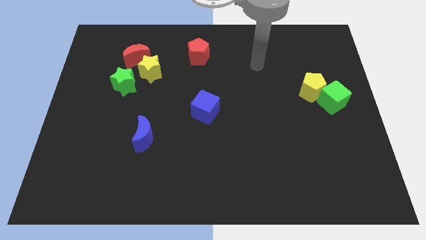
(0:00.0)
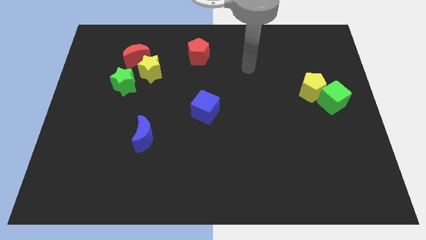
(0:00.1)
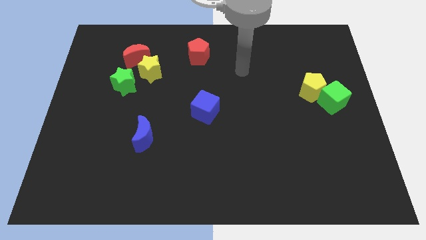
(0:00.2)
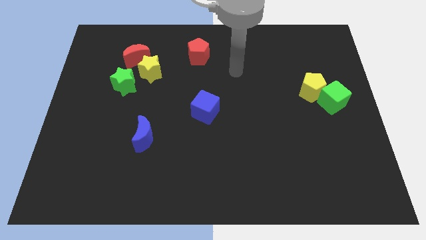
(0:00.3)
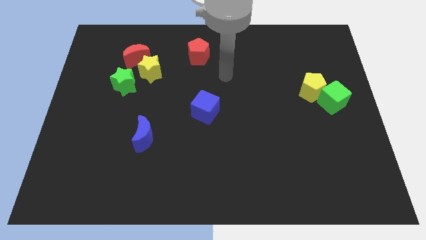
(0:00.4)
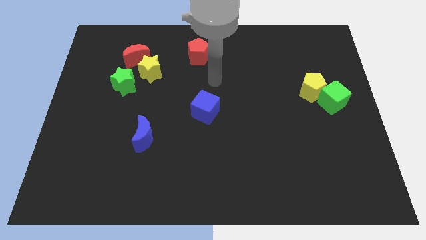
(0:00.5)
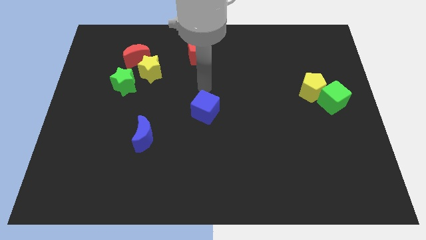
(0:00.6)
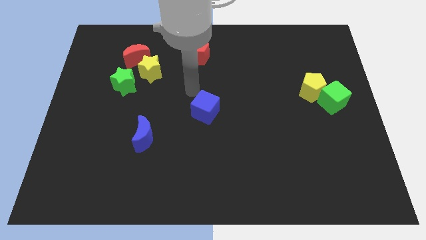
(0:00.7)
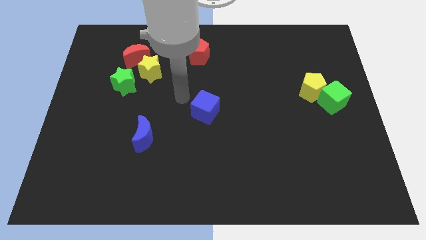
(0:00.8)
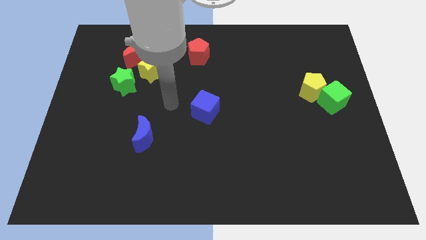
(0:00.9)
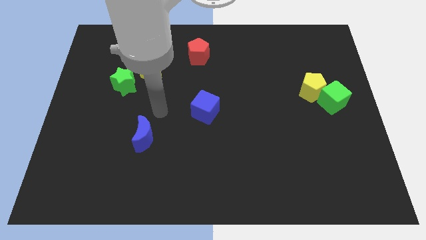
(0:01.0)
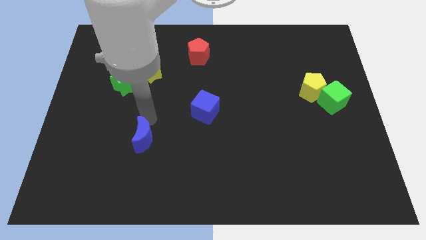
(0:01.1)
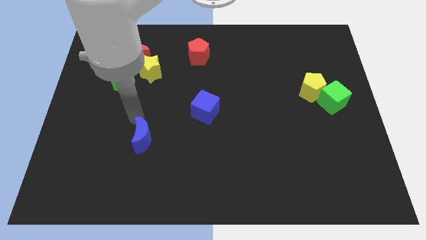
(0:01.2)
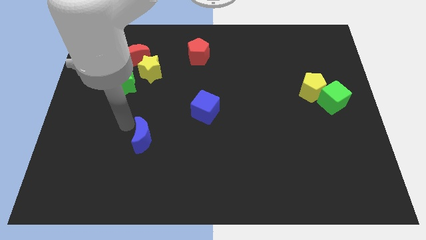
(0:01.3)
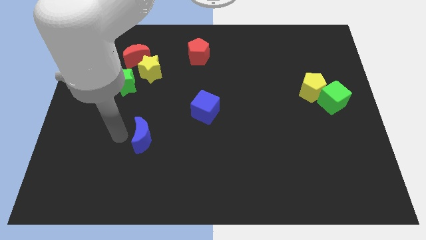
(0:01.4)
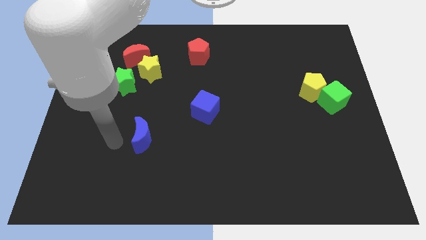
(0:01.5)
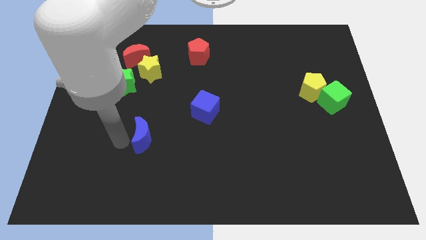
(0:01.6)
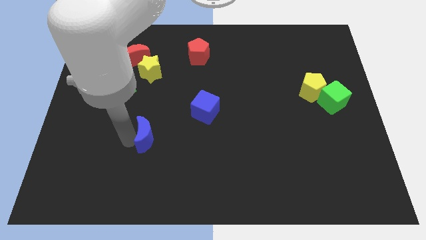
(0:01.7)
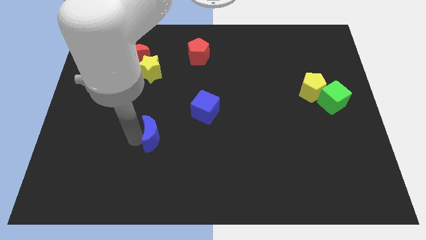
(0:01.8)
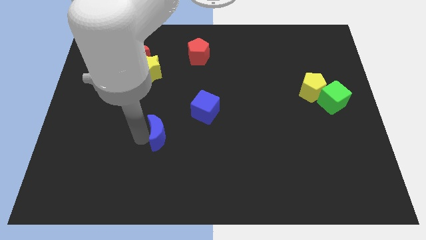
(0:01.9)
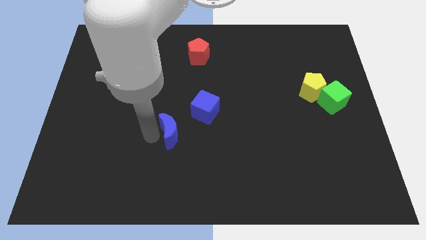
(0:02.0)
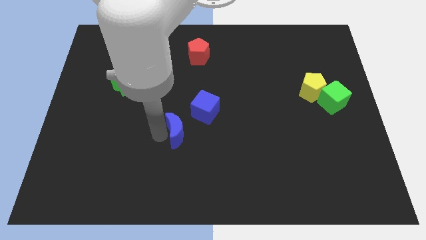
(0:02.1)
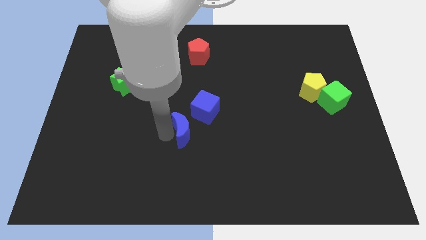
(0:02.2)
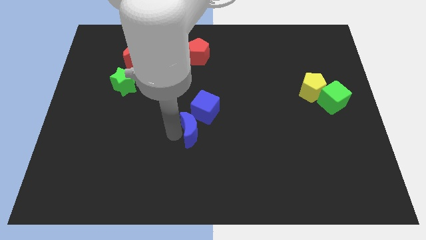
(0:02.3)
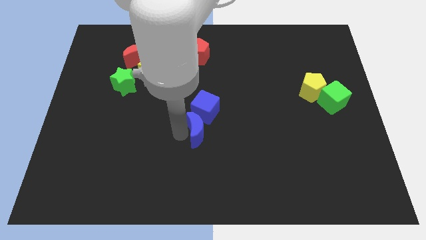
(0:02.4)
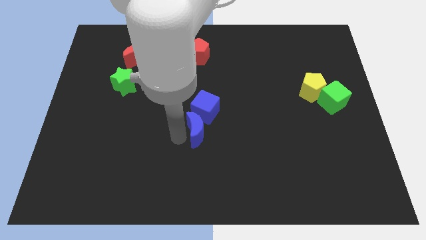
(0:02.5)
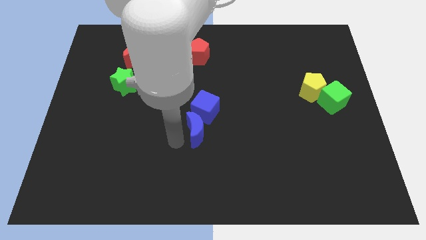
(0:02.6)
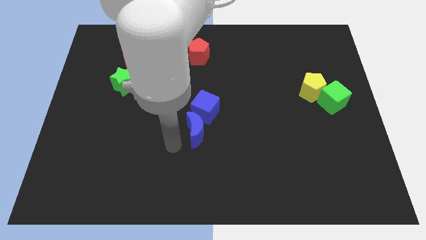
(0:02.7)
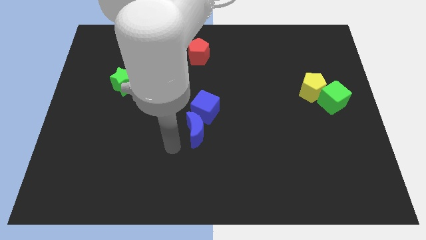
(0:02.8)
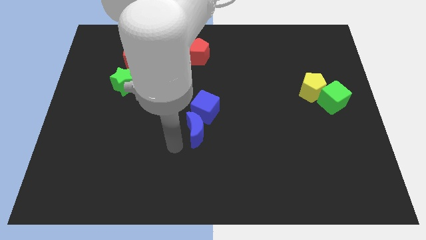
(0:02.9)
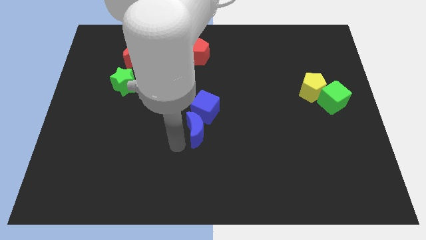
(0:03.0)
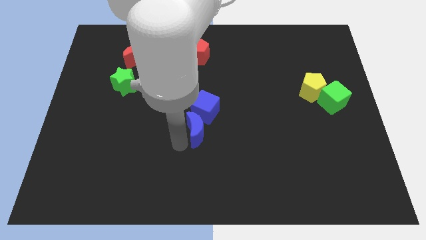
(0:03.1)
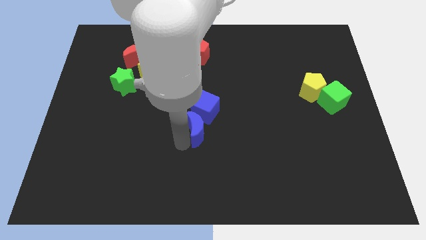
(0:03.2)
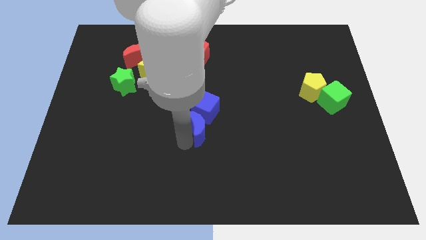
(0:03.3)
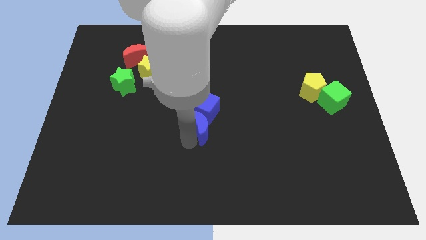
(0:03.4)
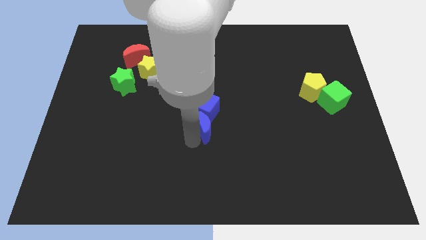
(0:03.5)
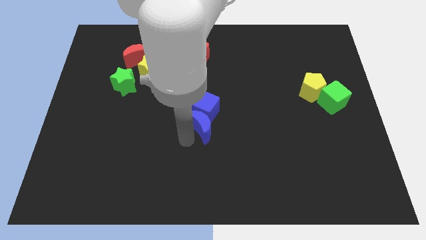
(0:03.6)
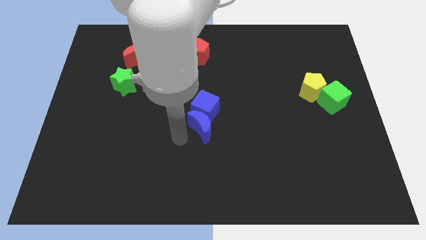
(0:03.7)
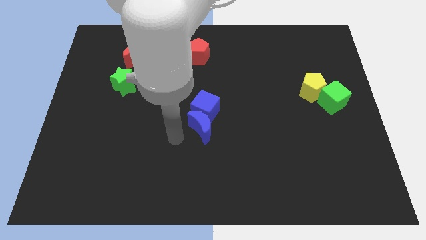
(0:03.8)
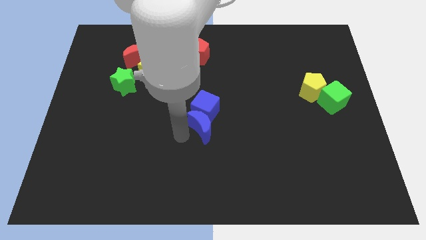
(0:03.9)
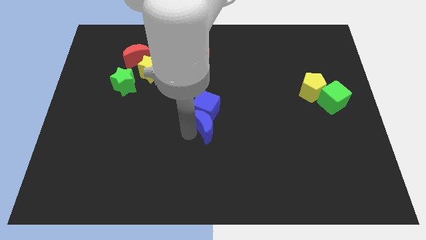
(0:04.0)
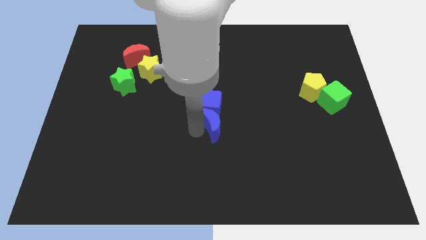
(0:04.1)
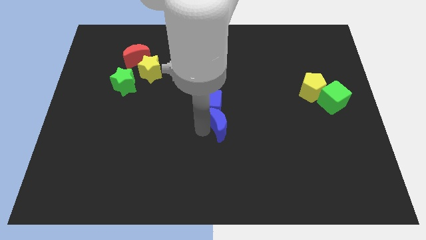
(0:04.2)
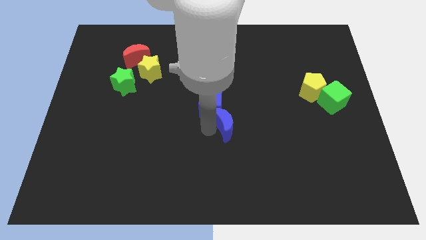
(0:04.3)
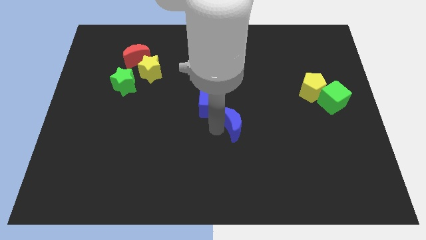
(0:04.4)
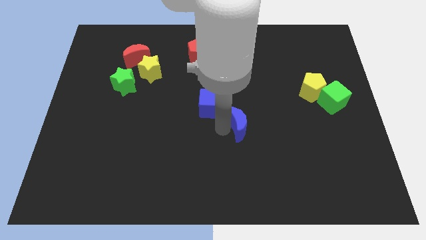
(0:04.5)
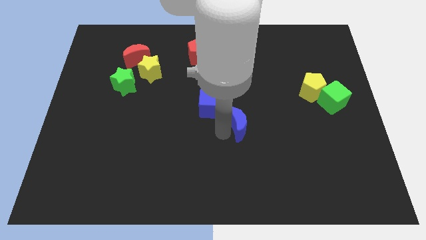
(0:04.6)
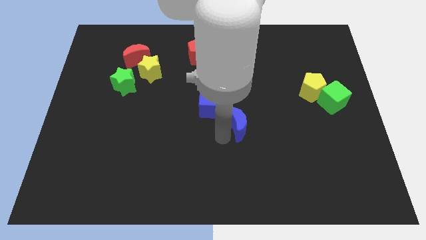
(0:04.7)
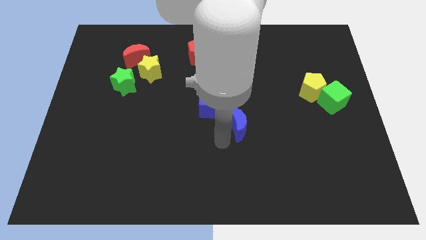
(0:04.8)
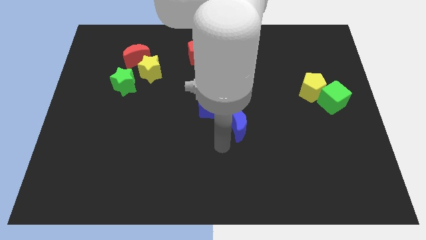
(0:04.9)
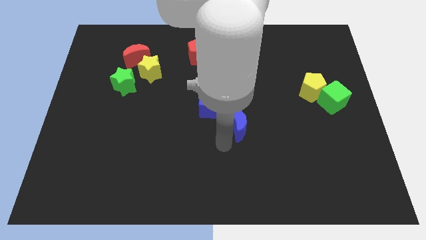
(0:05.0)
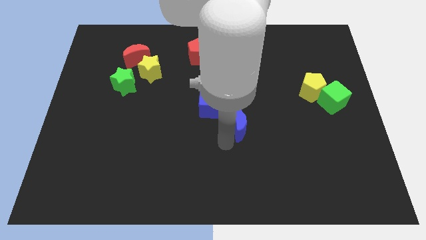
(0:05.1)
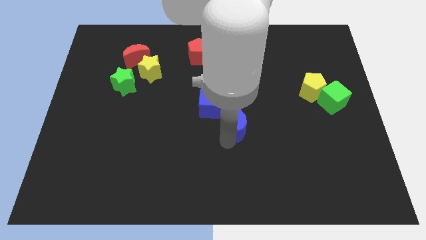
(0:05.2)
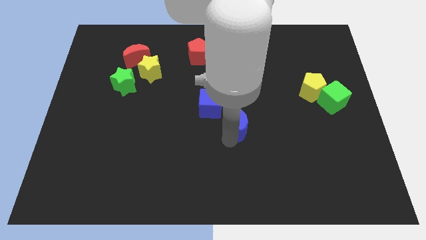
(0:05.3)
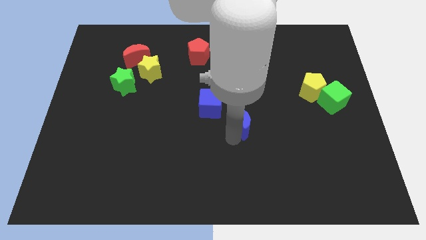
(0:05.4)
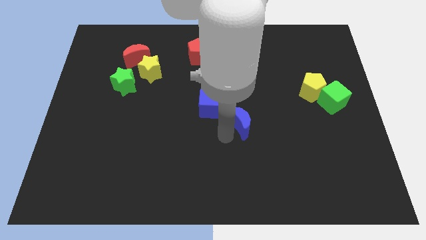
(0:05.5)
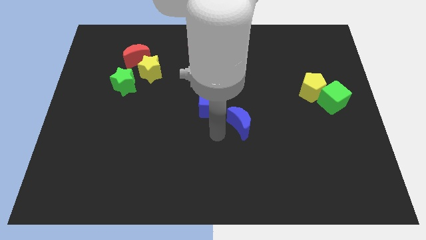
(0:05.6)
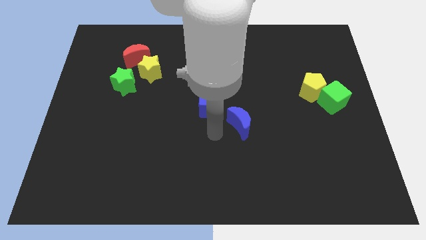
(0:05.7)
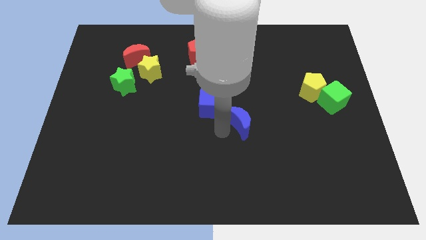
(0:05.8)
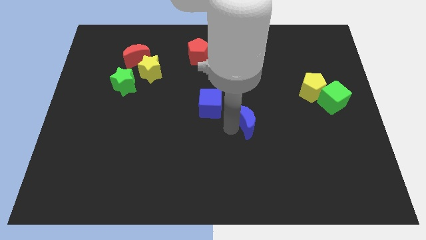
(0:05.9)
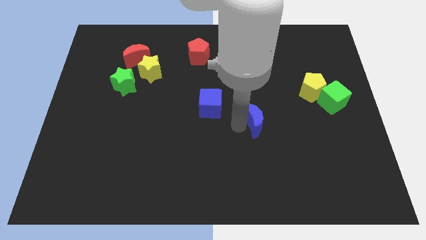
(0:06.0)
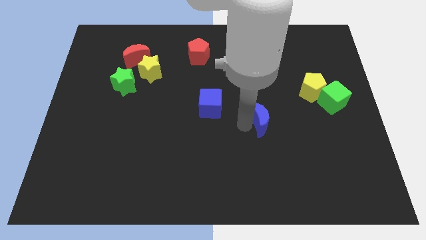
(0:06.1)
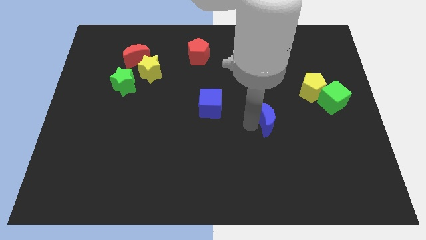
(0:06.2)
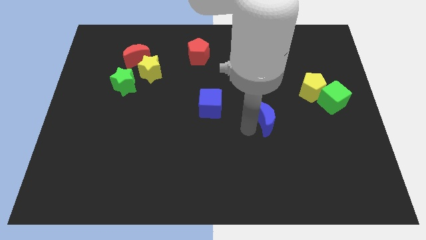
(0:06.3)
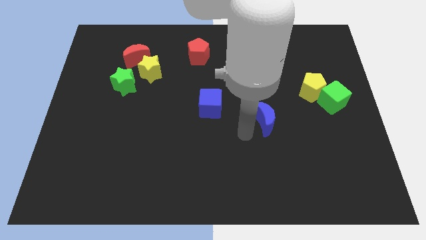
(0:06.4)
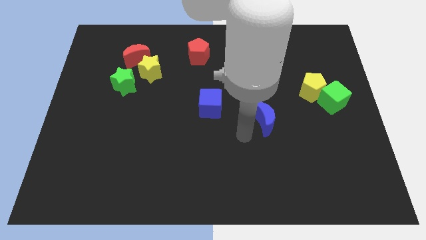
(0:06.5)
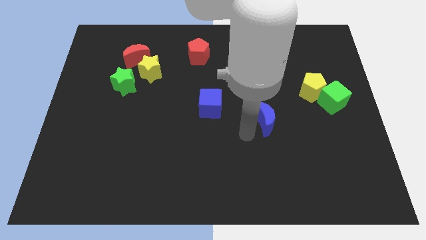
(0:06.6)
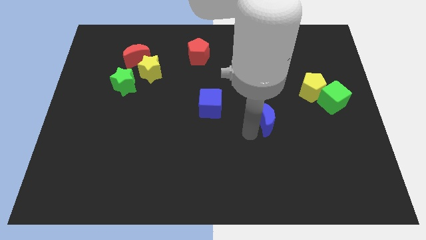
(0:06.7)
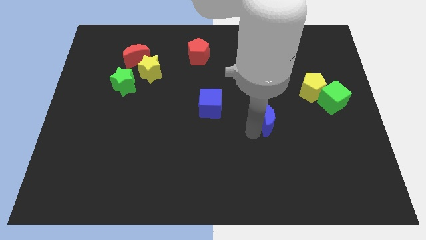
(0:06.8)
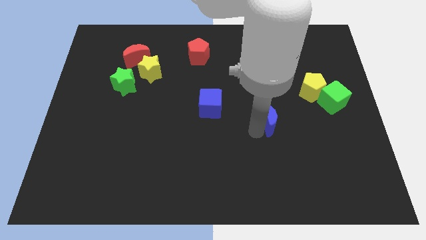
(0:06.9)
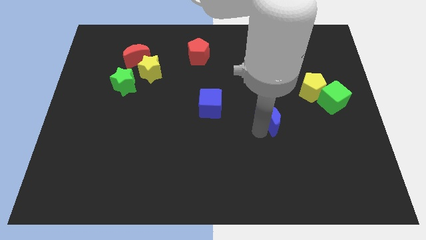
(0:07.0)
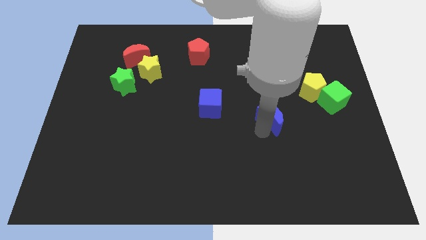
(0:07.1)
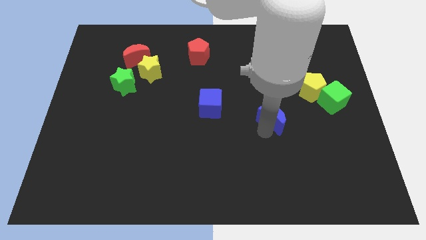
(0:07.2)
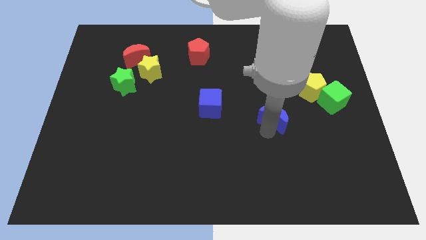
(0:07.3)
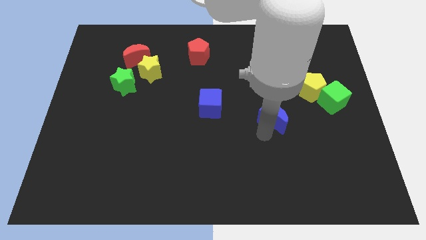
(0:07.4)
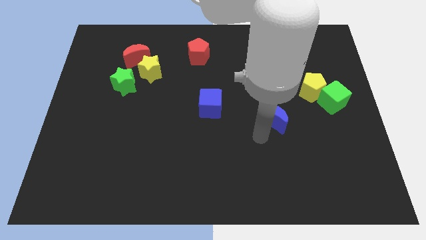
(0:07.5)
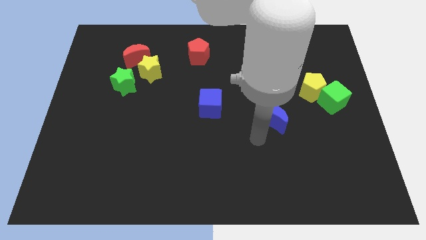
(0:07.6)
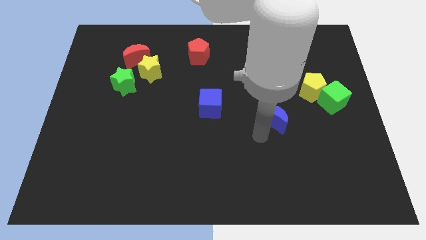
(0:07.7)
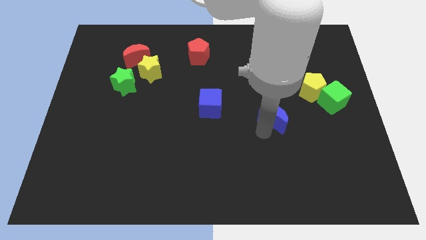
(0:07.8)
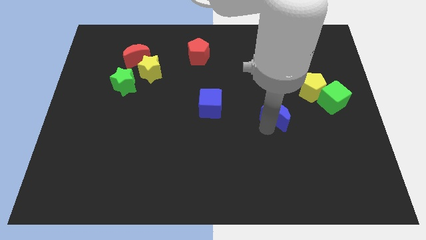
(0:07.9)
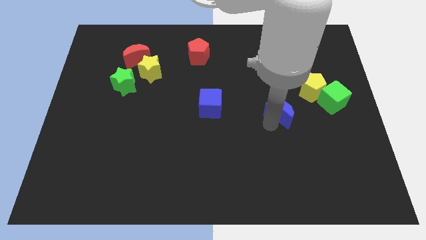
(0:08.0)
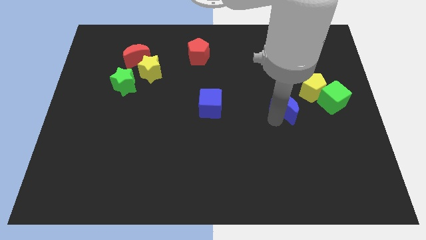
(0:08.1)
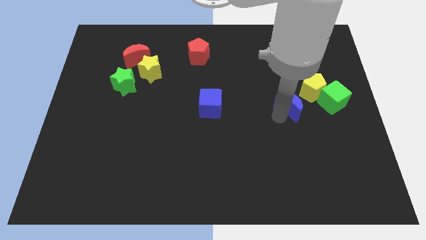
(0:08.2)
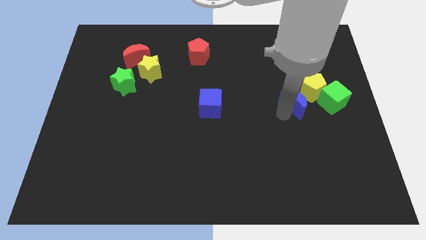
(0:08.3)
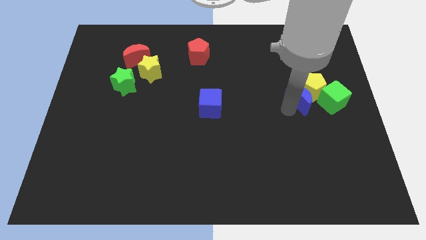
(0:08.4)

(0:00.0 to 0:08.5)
slide the blue moon next to the yellow pentagon
